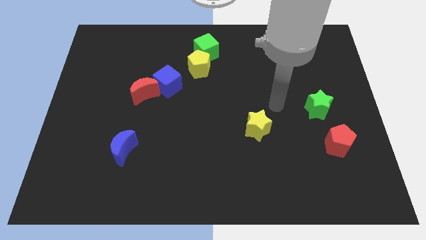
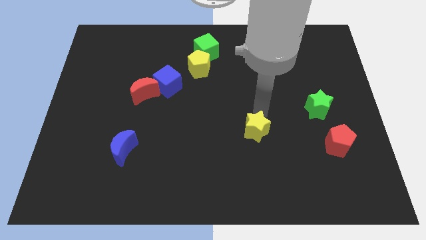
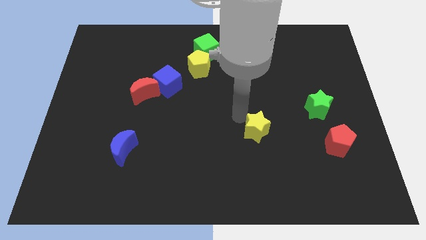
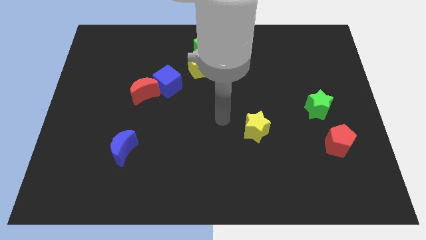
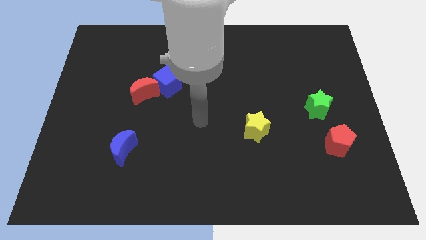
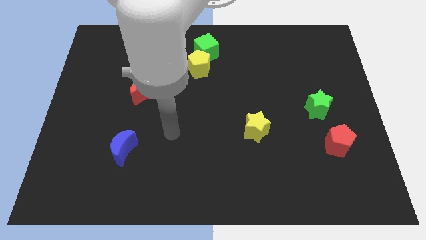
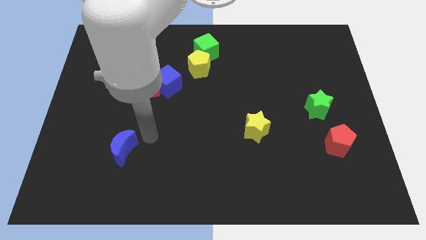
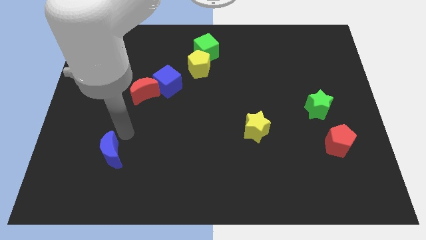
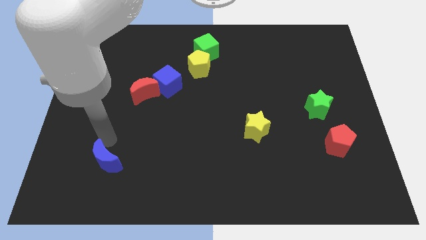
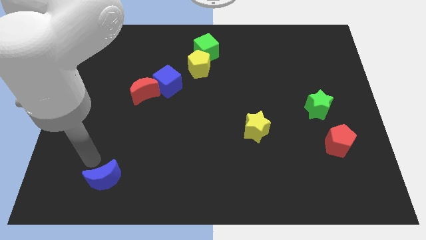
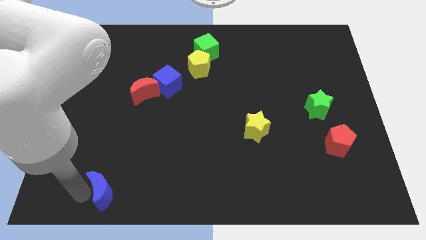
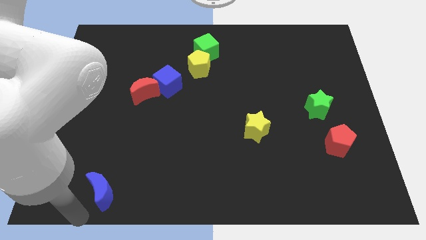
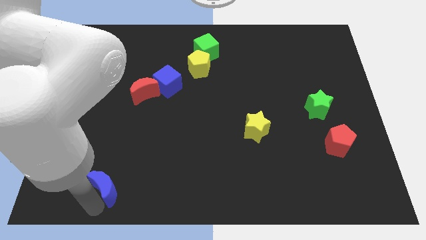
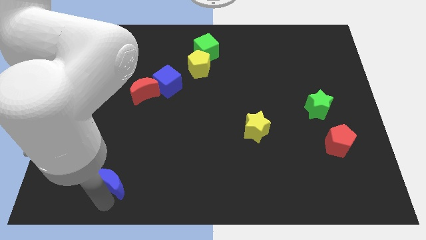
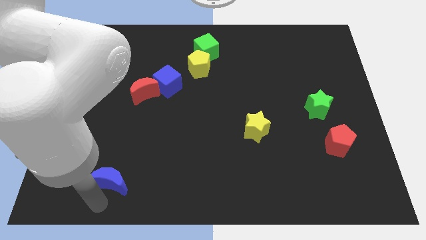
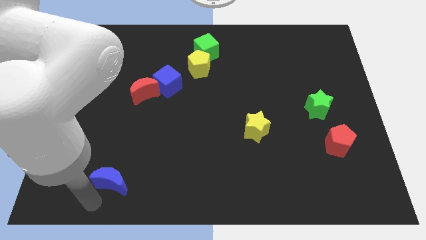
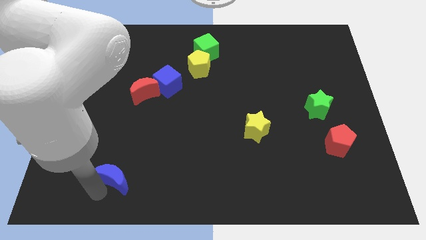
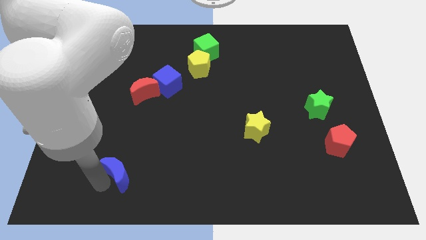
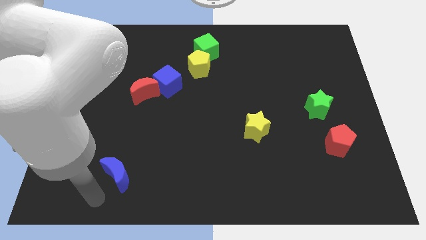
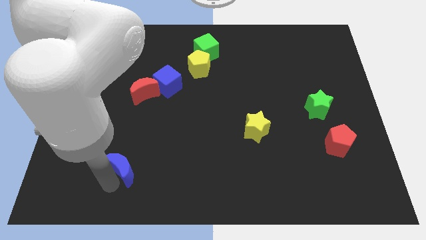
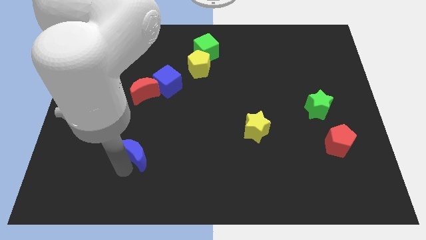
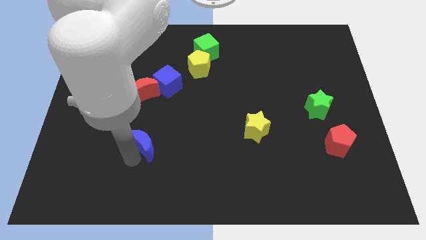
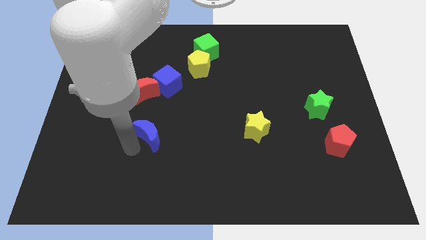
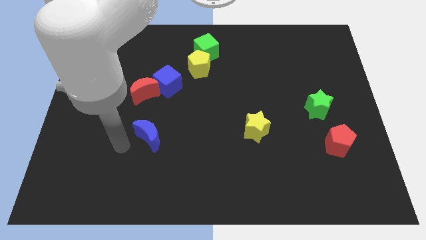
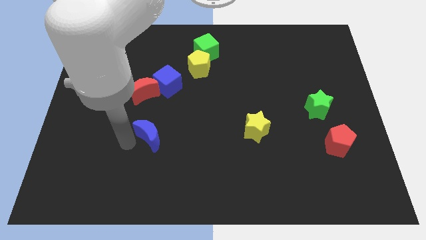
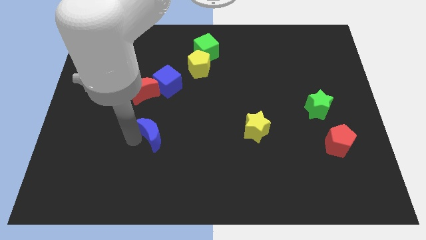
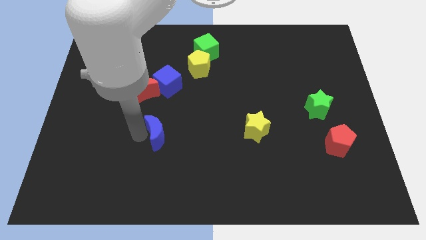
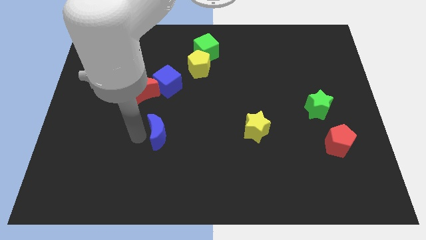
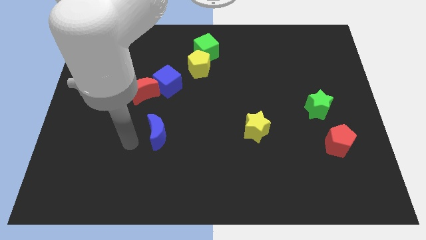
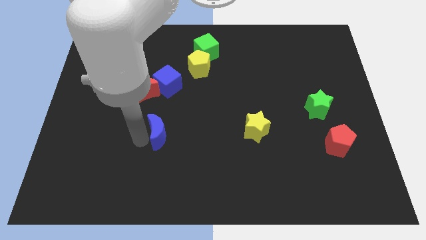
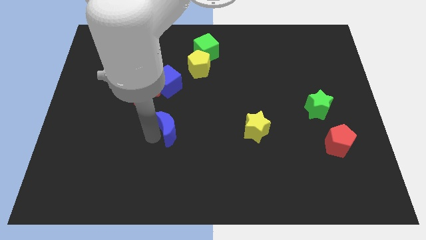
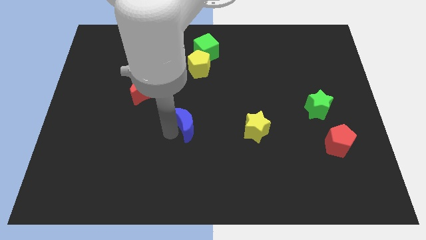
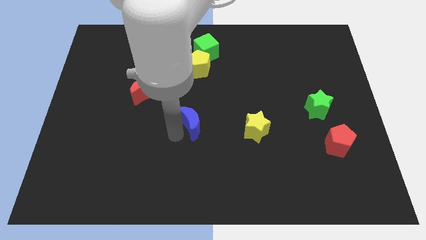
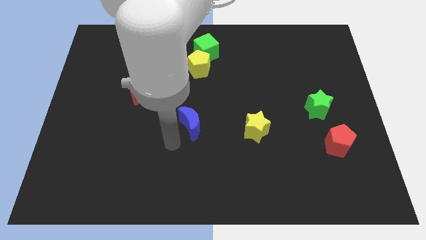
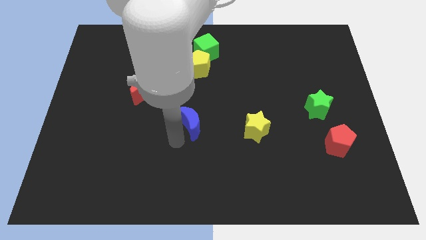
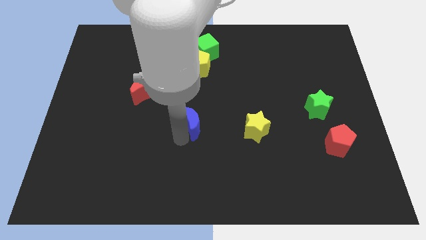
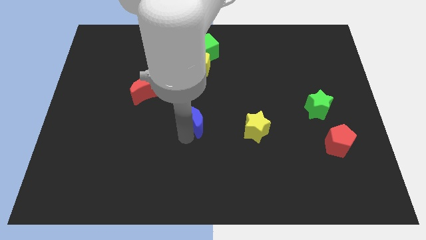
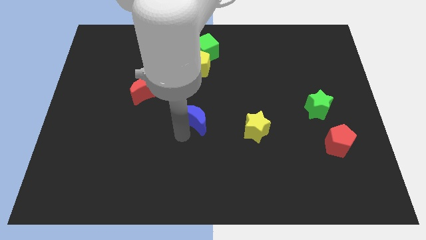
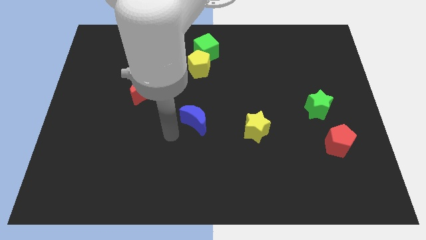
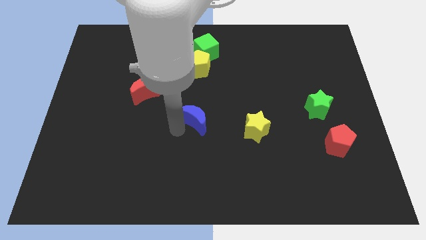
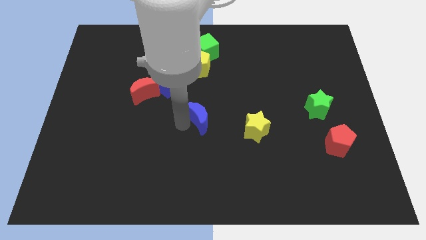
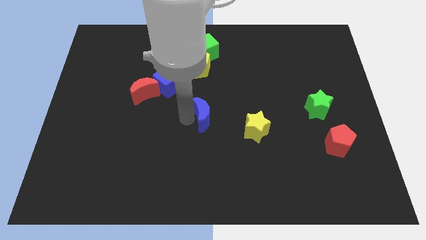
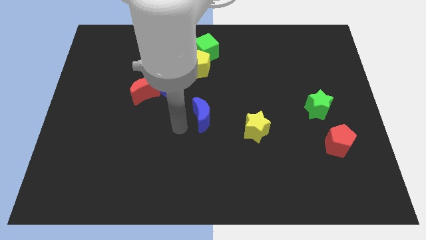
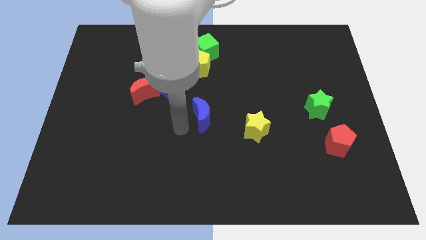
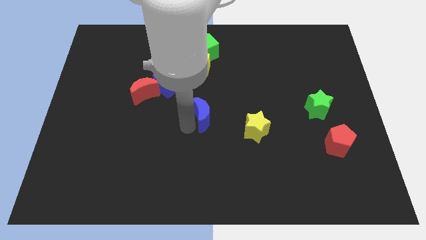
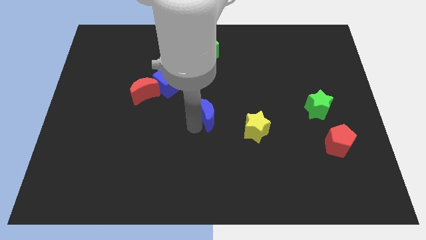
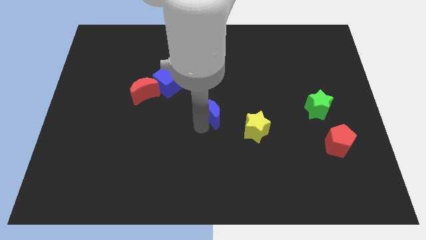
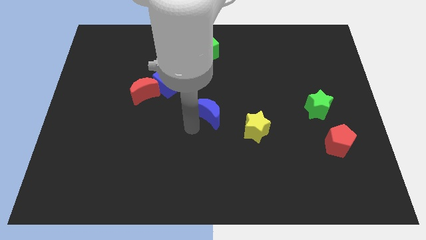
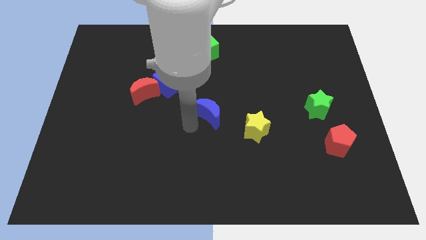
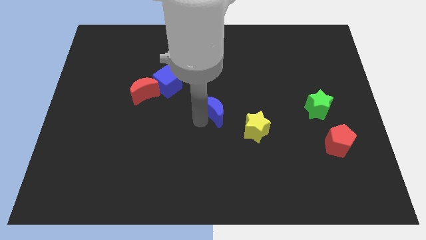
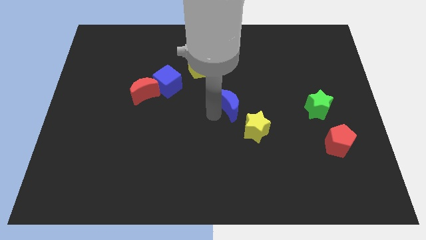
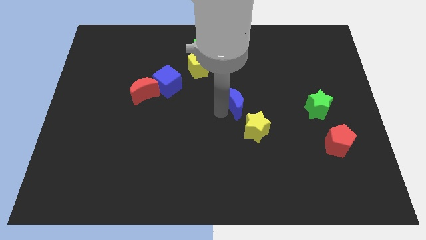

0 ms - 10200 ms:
push the blue moon to the top of the yellow star

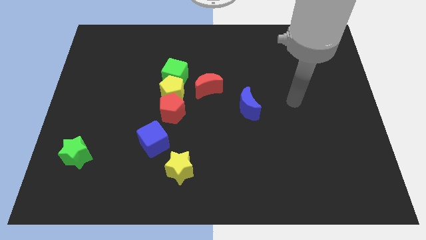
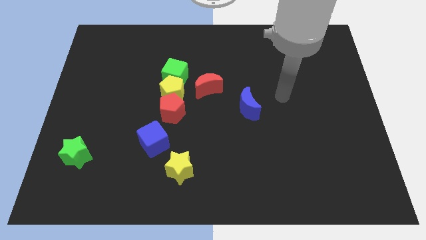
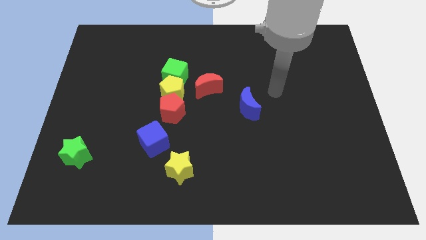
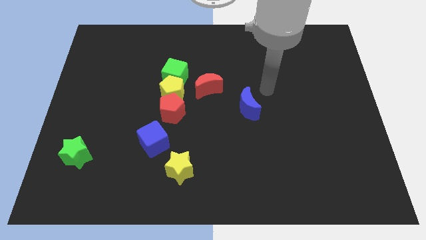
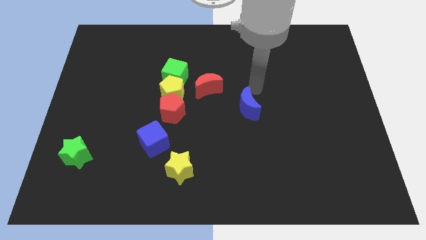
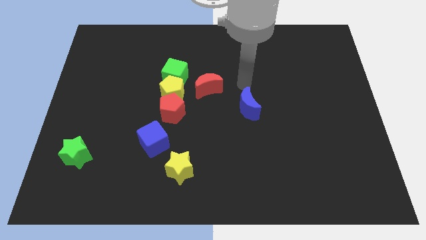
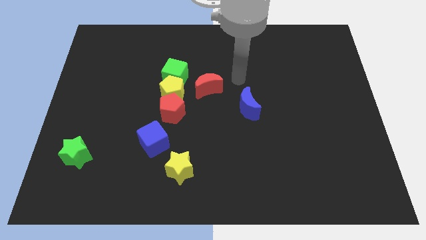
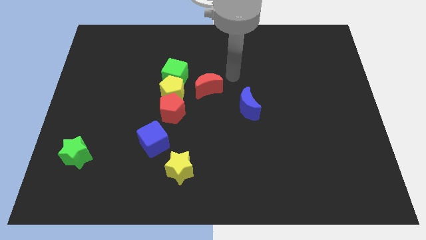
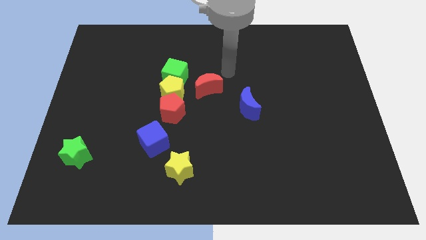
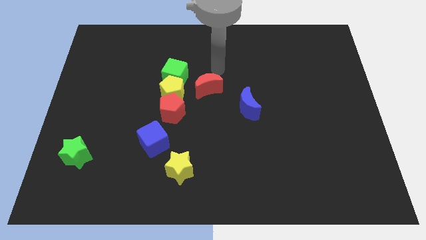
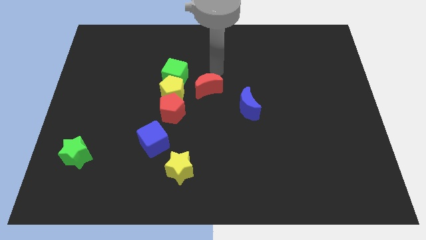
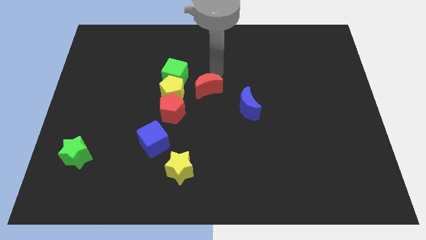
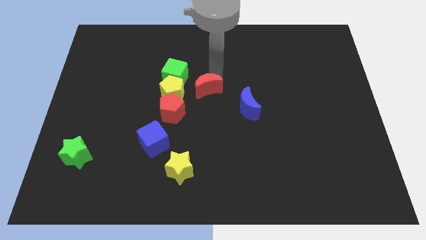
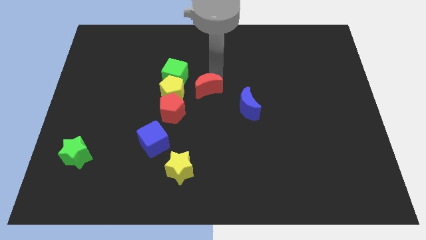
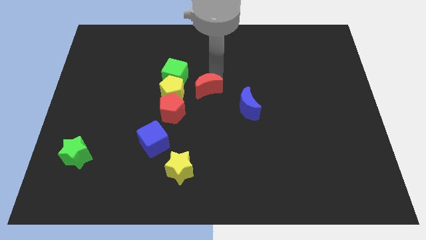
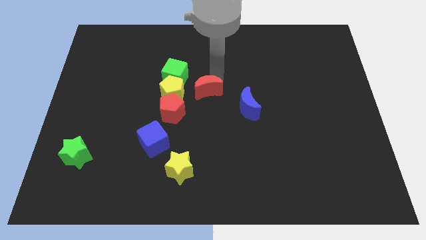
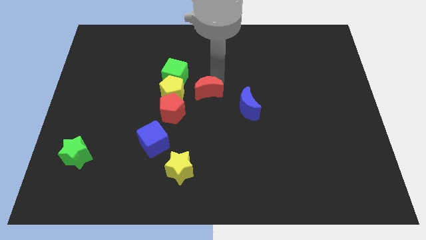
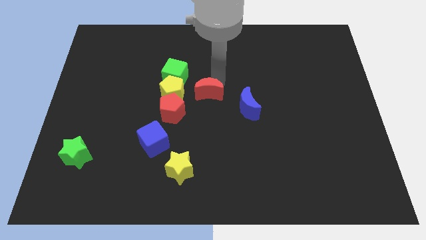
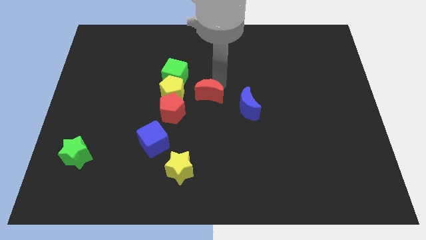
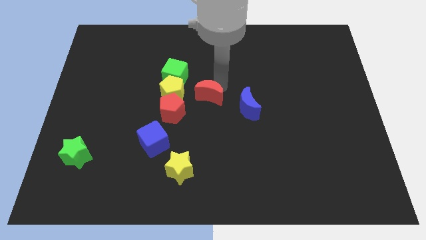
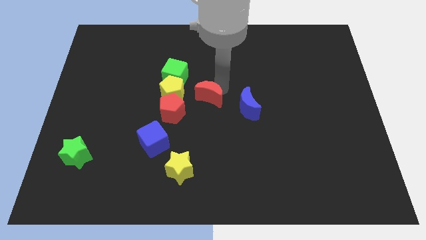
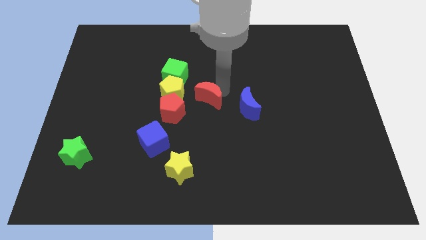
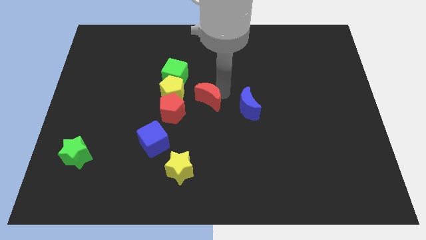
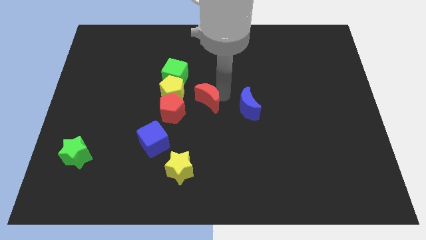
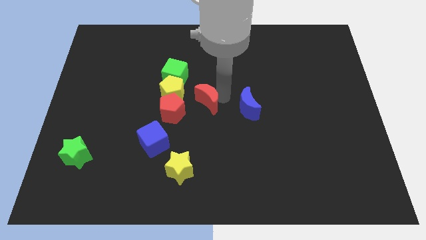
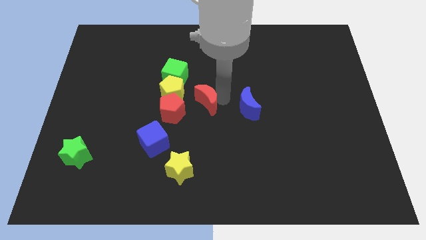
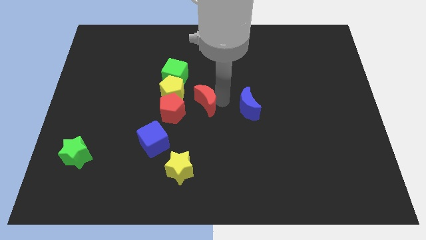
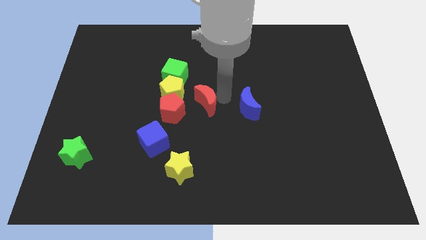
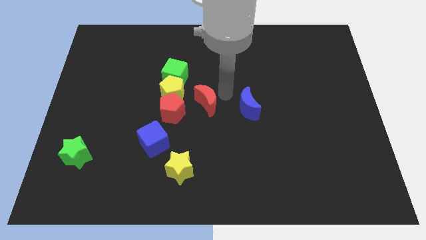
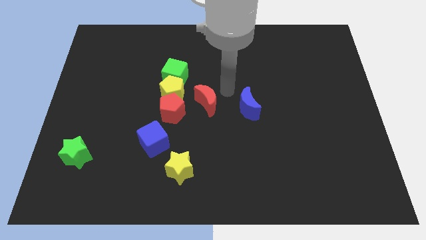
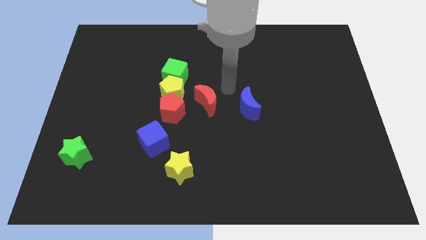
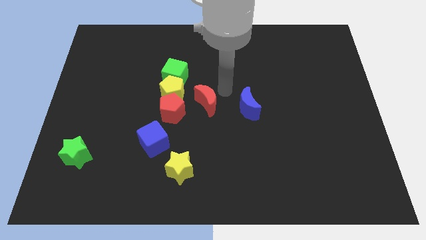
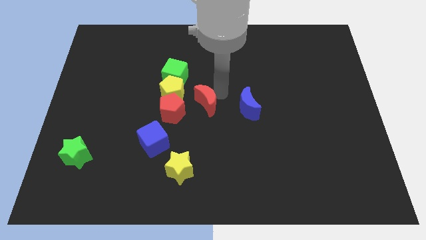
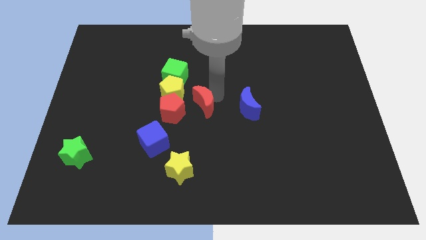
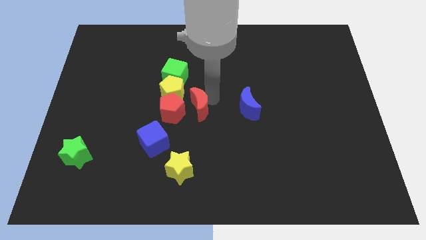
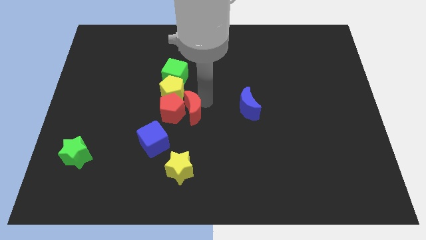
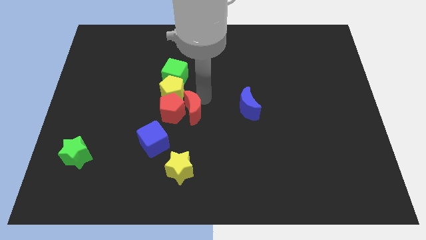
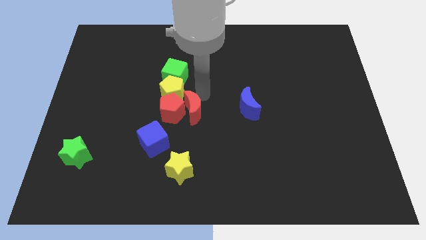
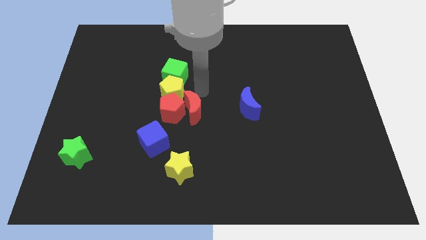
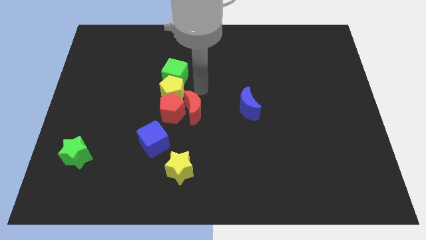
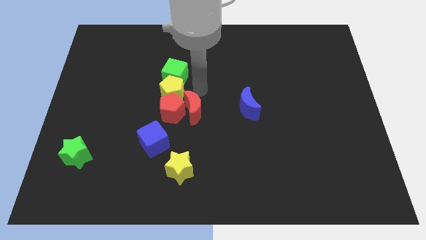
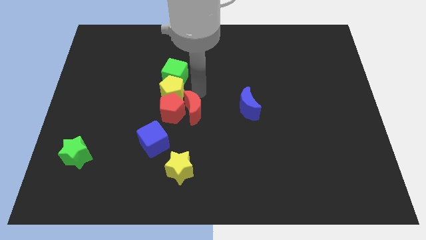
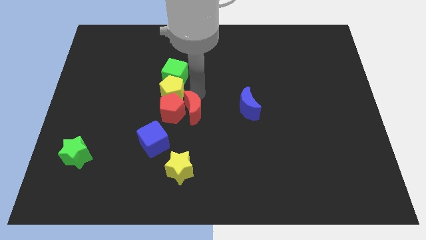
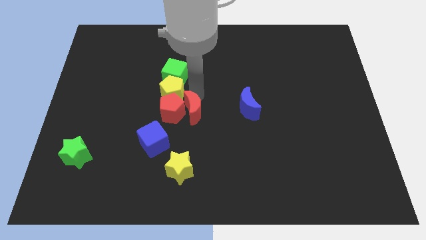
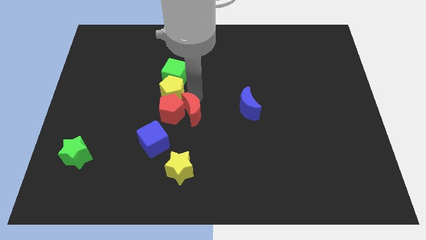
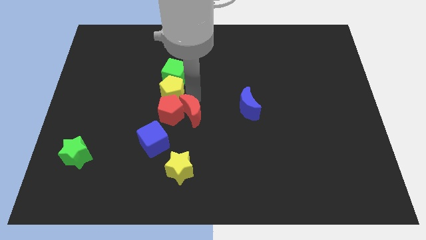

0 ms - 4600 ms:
put the red moon to the bottom side of the yellow pentagon
